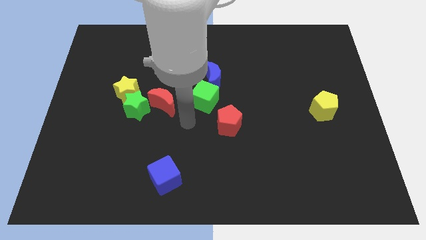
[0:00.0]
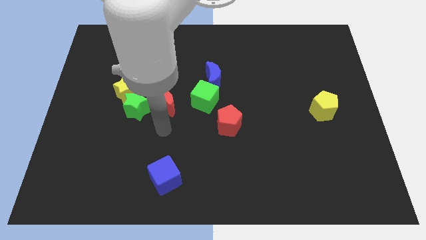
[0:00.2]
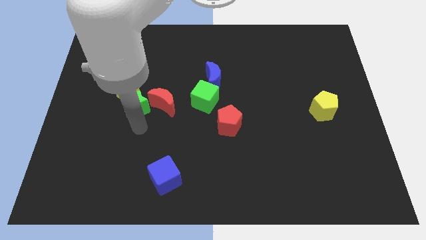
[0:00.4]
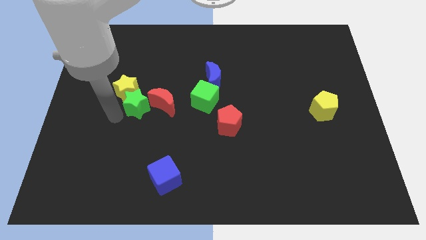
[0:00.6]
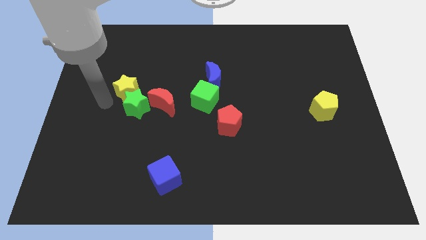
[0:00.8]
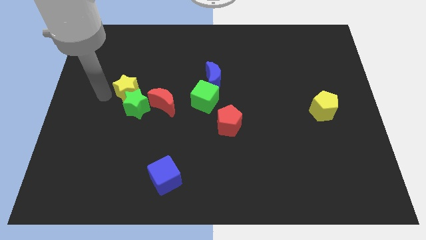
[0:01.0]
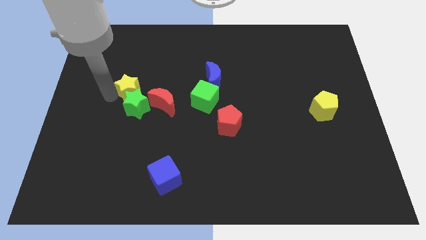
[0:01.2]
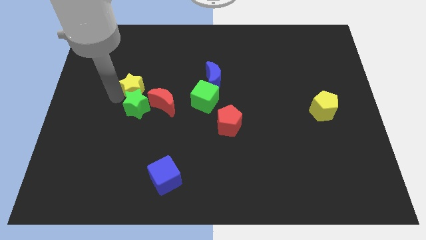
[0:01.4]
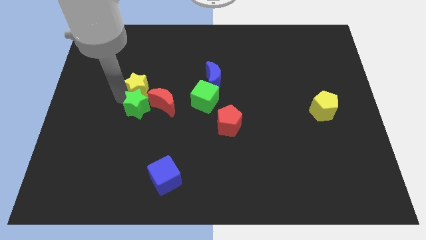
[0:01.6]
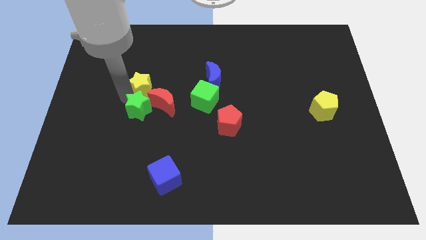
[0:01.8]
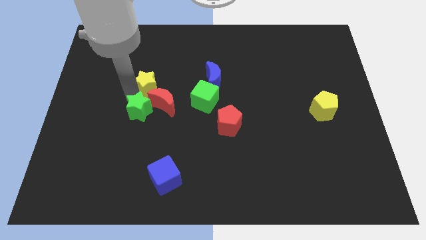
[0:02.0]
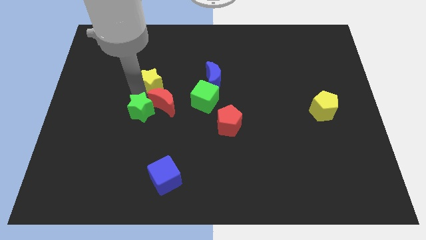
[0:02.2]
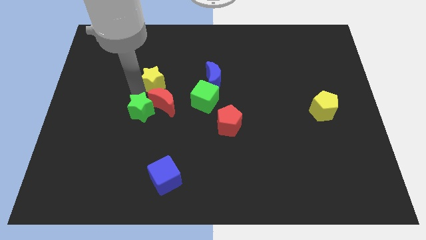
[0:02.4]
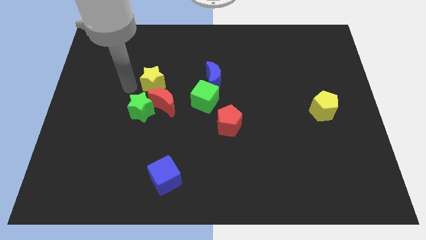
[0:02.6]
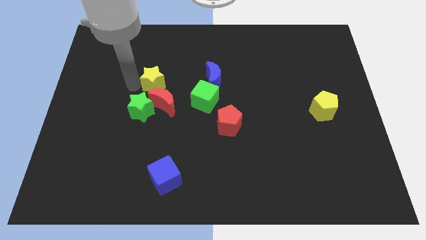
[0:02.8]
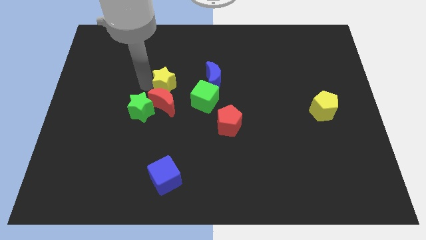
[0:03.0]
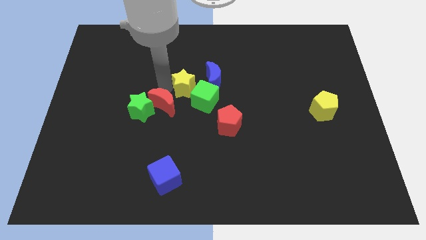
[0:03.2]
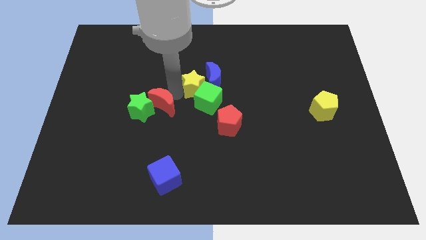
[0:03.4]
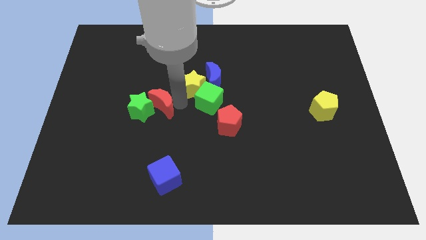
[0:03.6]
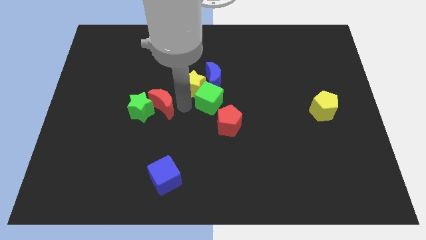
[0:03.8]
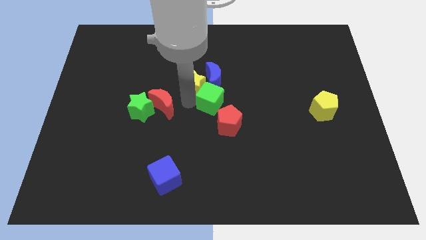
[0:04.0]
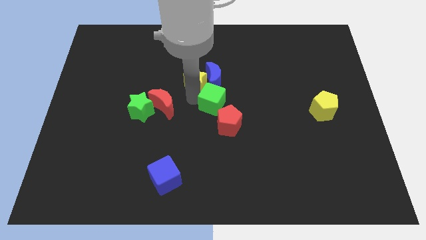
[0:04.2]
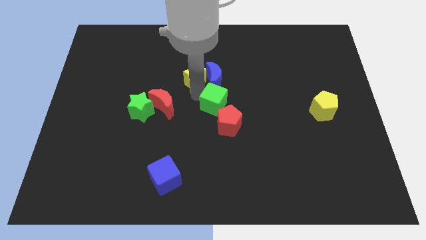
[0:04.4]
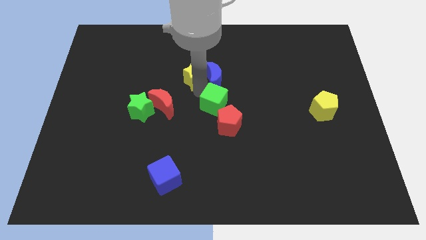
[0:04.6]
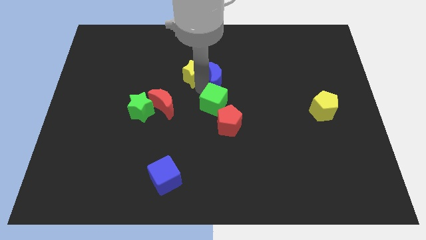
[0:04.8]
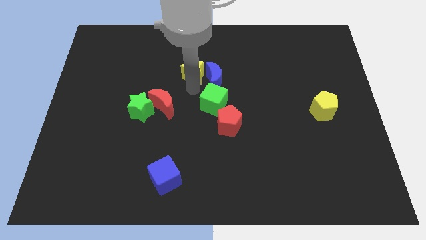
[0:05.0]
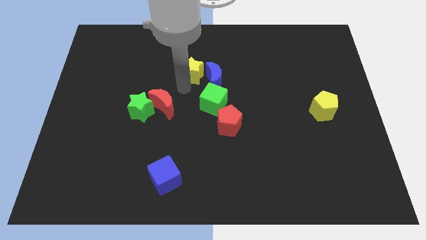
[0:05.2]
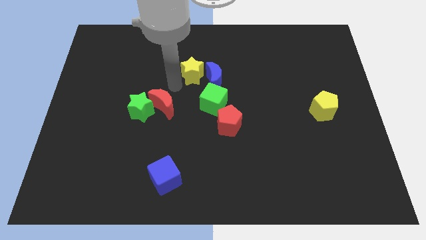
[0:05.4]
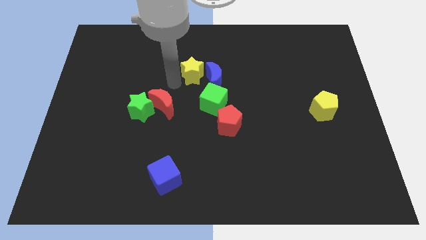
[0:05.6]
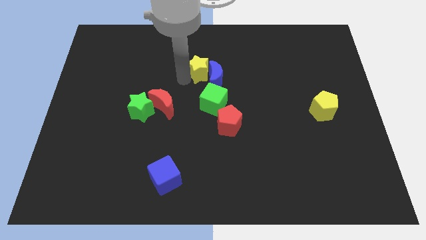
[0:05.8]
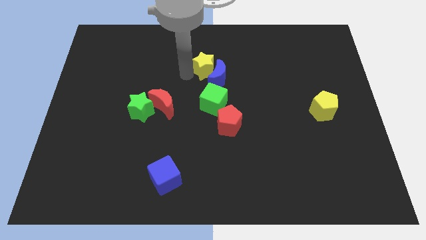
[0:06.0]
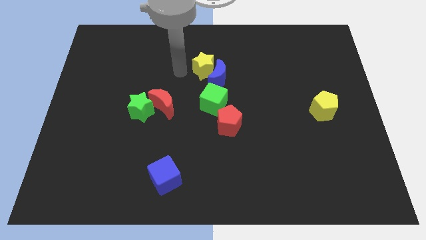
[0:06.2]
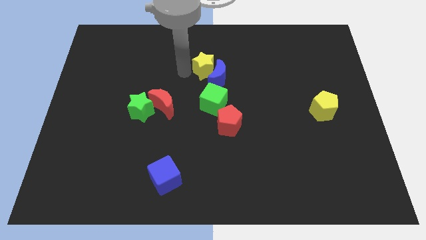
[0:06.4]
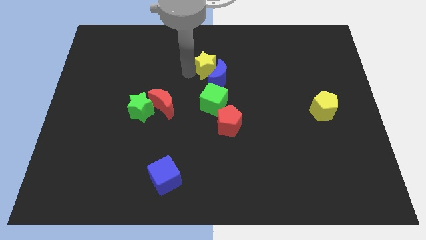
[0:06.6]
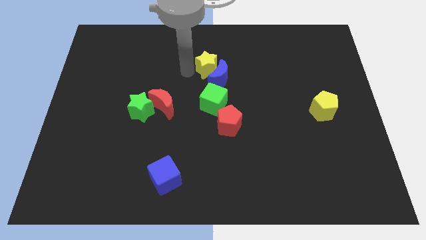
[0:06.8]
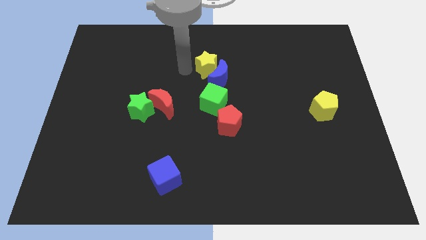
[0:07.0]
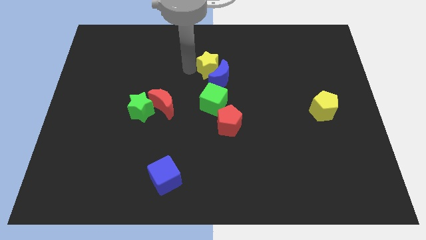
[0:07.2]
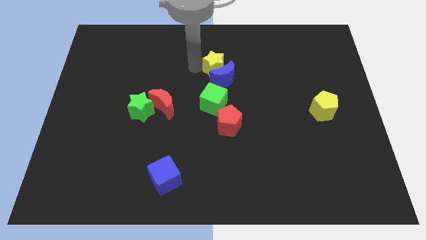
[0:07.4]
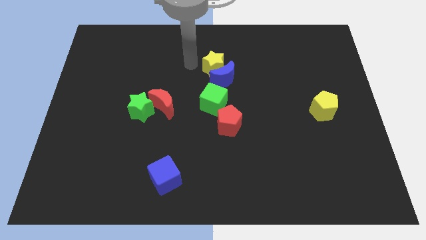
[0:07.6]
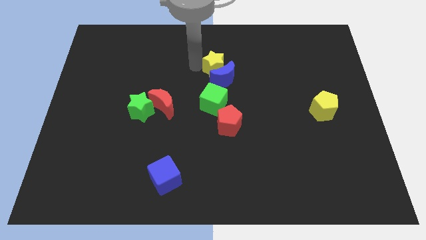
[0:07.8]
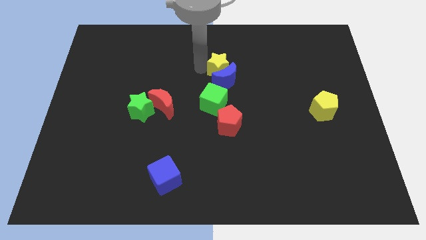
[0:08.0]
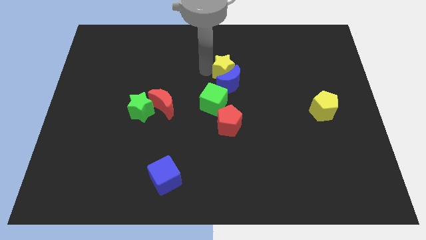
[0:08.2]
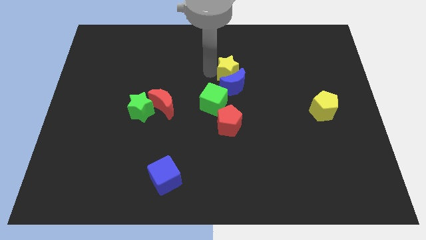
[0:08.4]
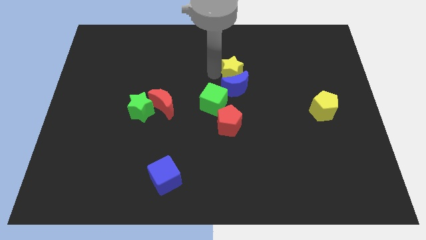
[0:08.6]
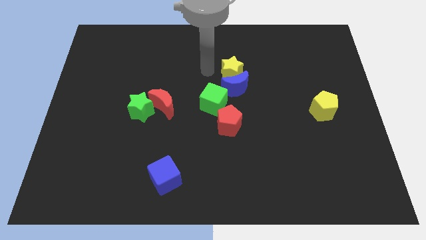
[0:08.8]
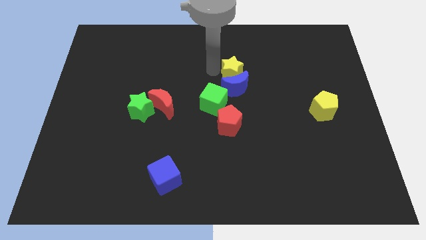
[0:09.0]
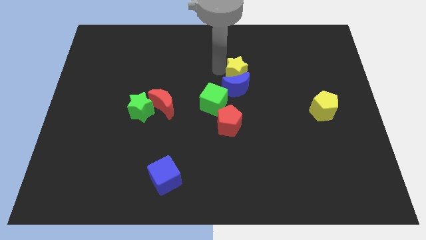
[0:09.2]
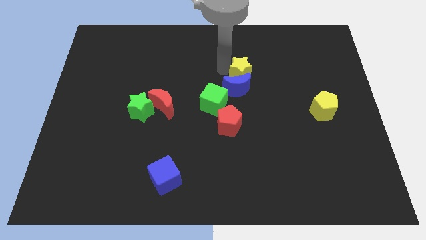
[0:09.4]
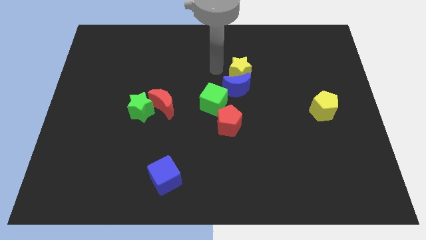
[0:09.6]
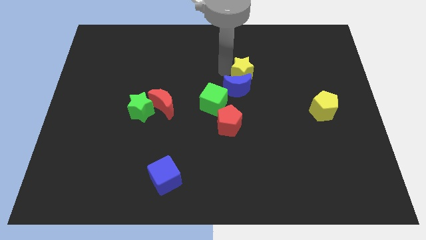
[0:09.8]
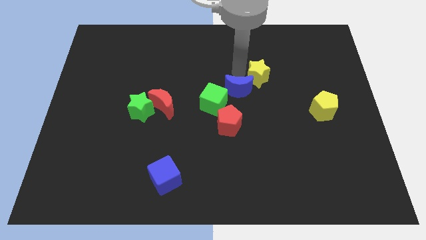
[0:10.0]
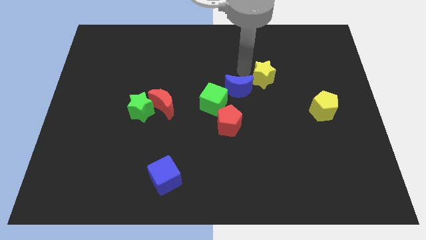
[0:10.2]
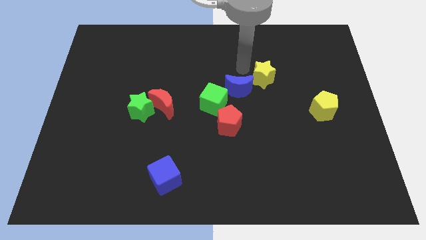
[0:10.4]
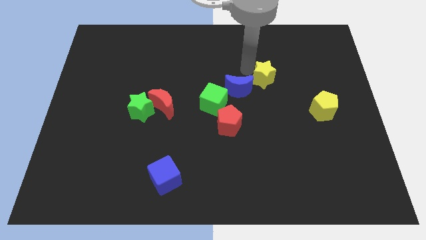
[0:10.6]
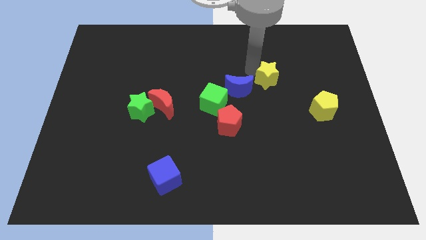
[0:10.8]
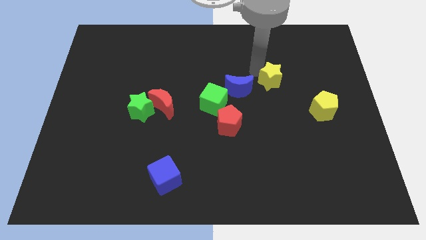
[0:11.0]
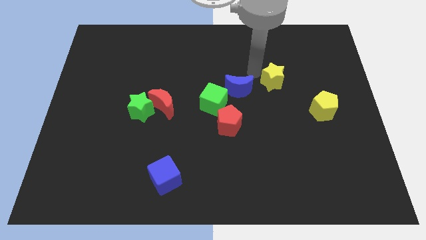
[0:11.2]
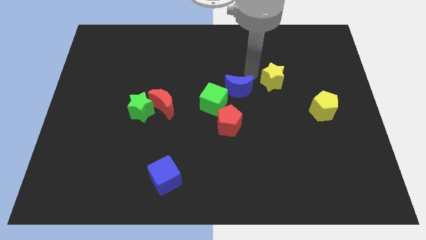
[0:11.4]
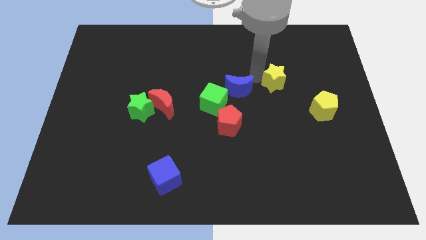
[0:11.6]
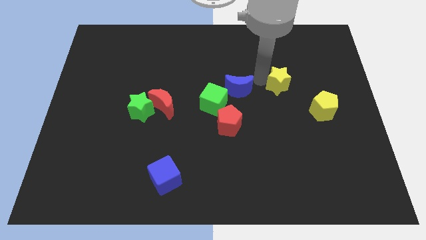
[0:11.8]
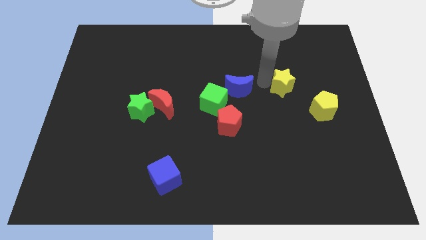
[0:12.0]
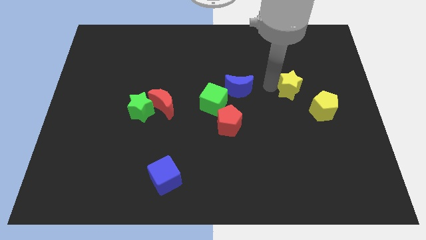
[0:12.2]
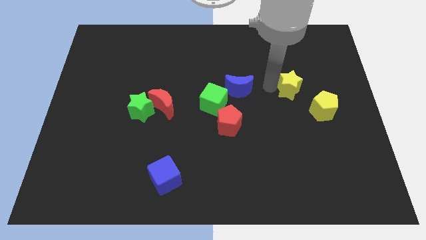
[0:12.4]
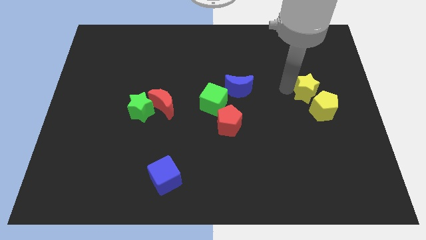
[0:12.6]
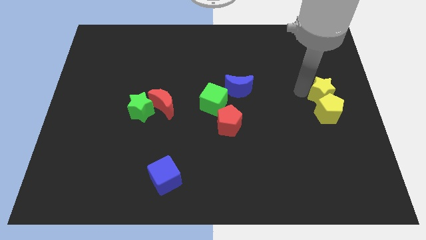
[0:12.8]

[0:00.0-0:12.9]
push the yellow star to the center right
